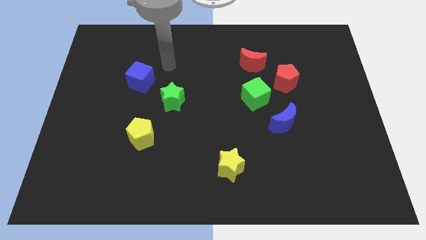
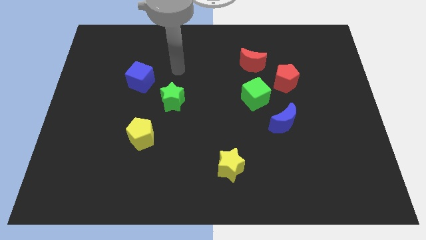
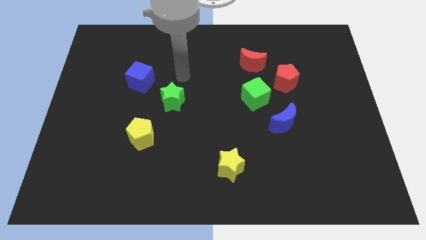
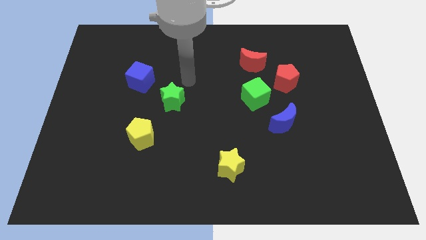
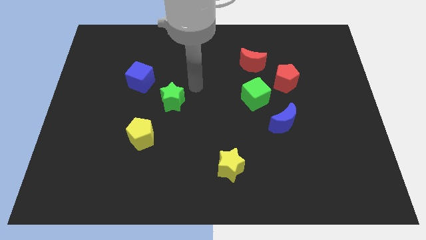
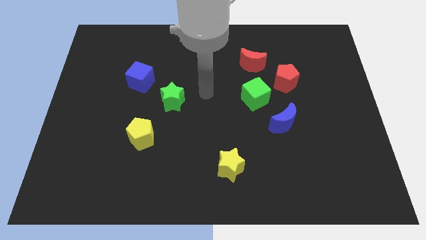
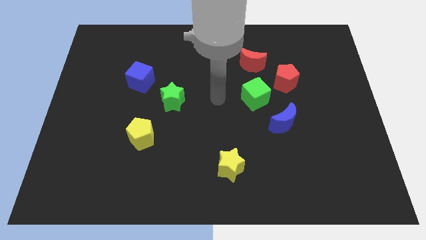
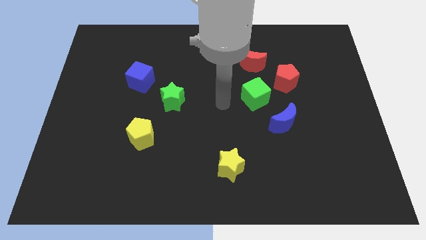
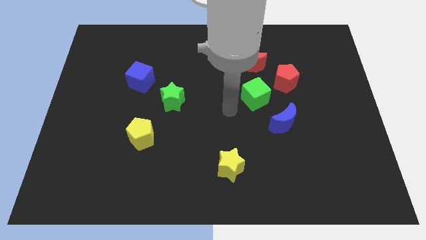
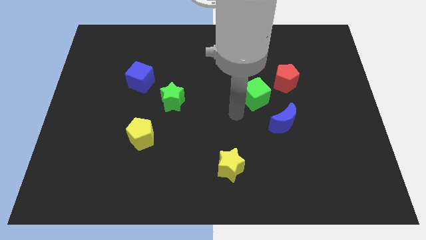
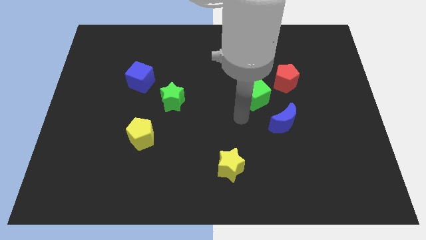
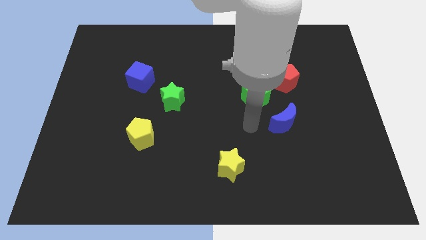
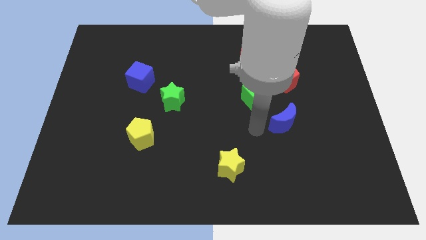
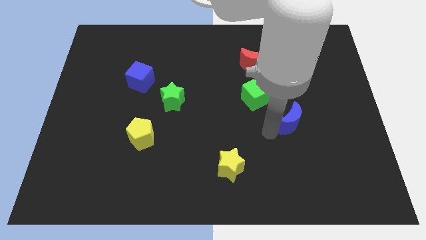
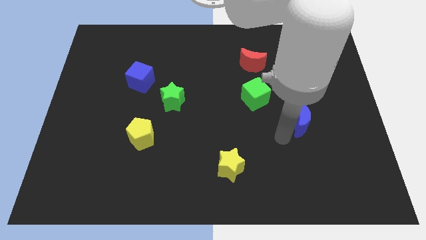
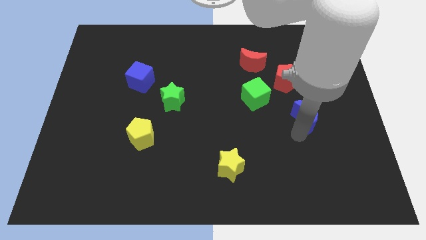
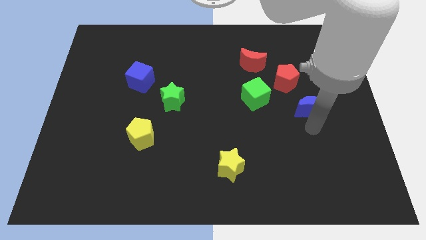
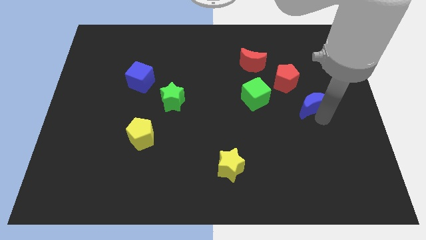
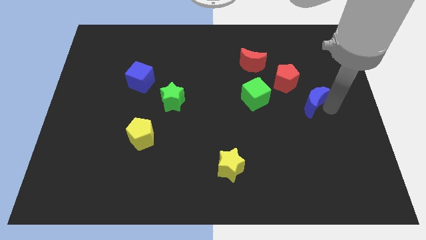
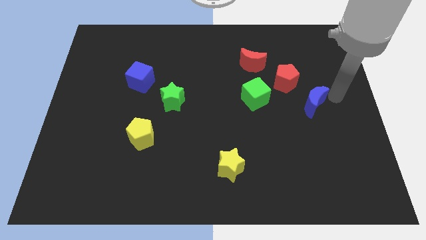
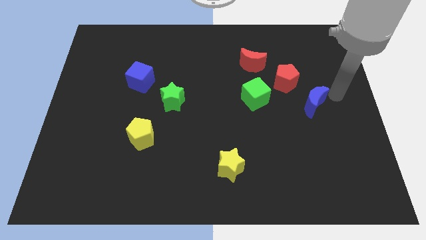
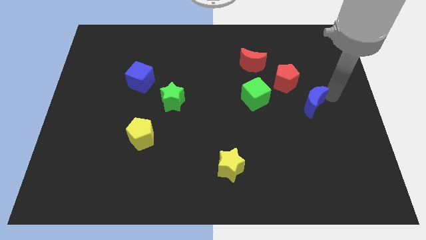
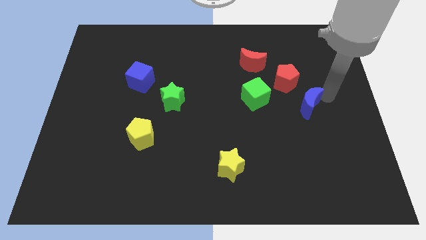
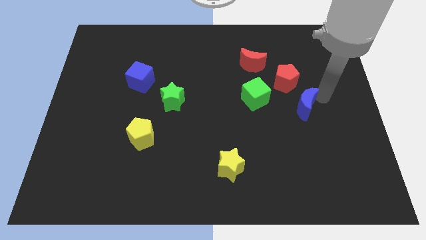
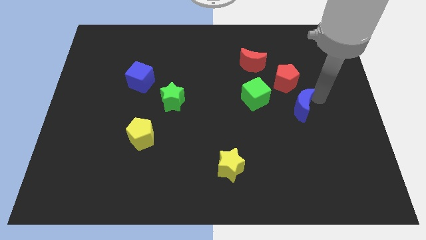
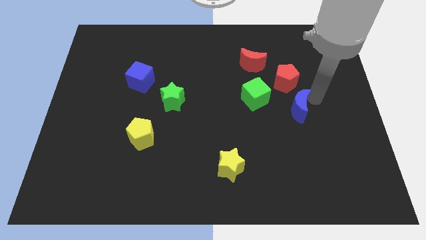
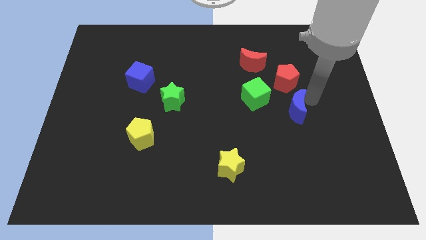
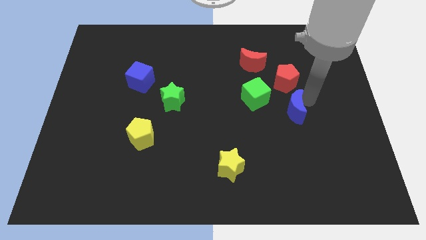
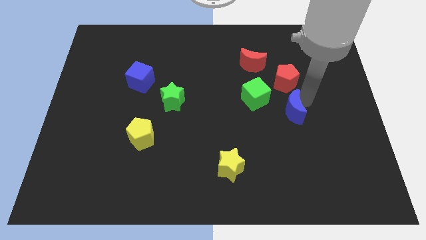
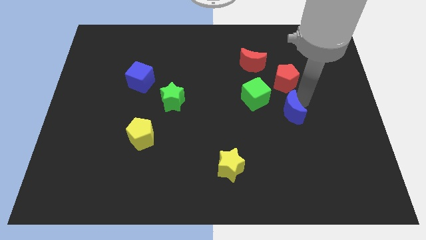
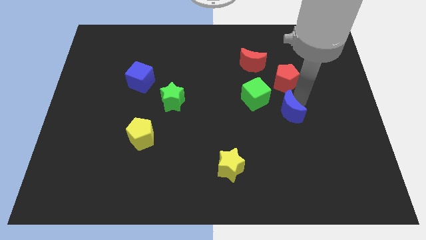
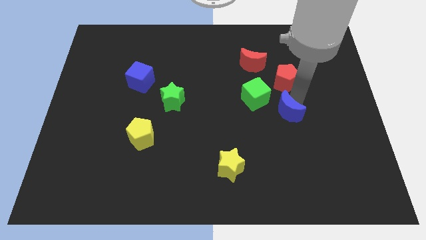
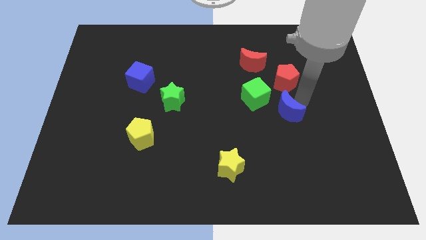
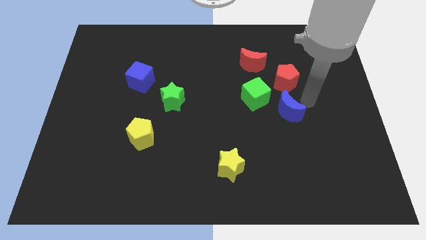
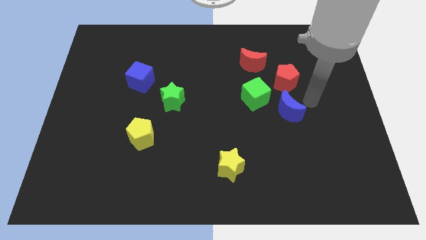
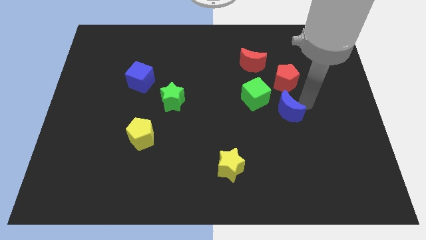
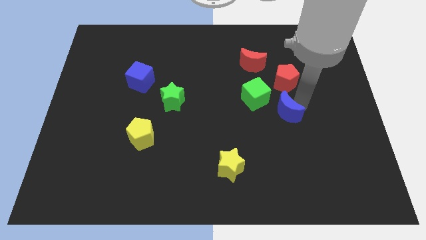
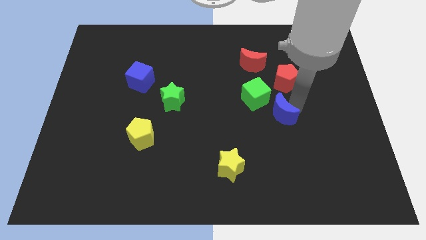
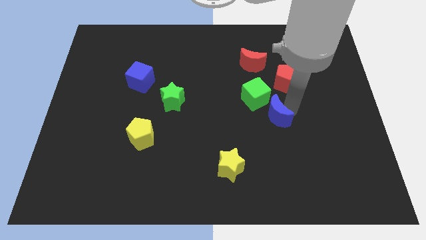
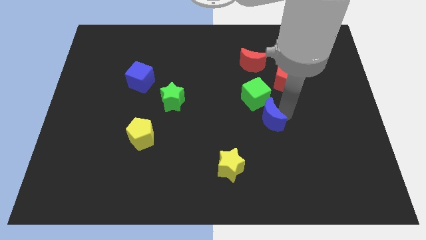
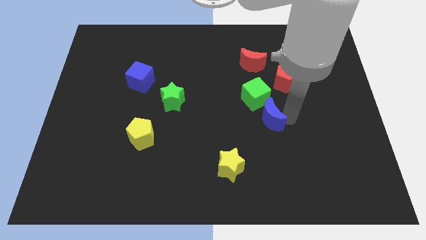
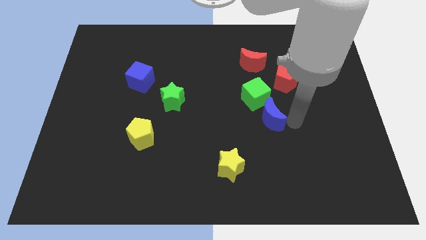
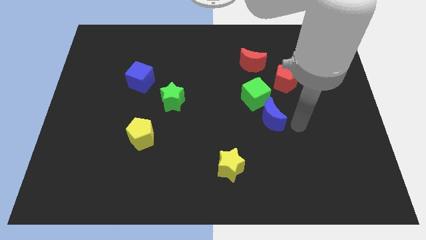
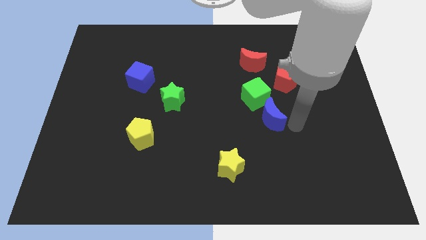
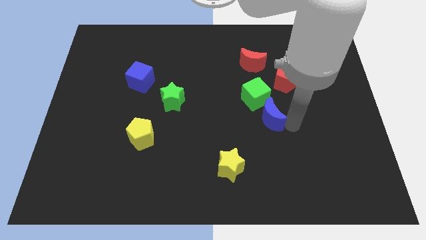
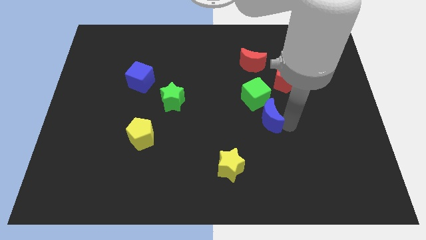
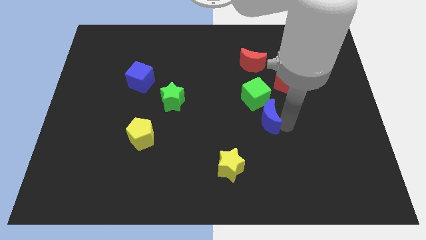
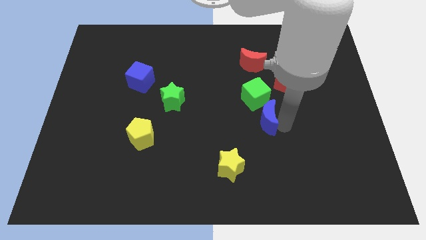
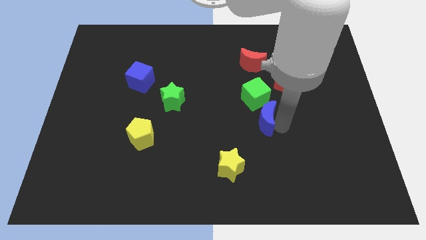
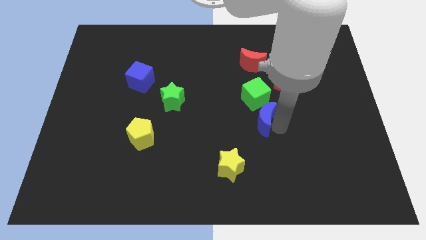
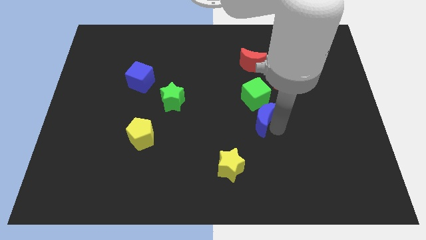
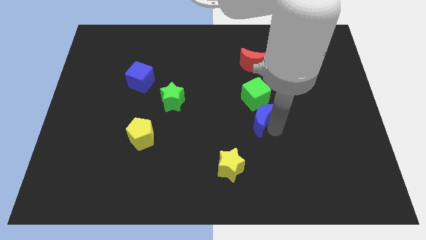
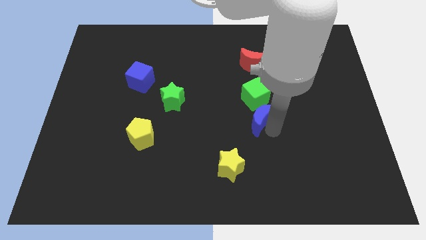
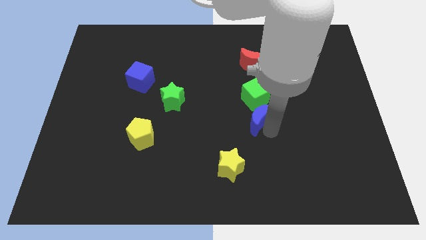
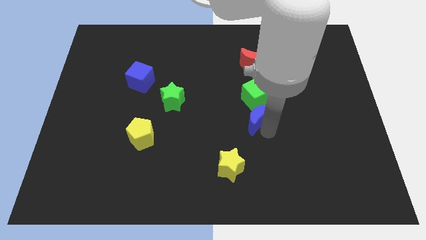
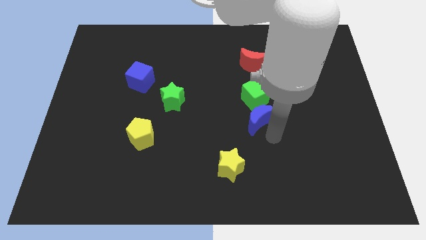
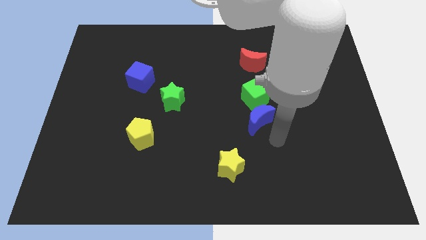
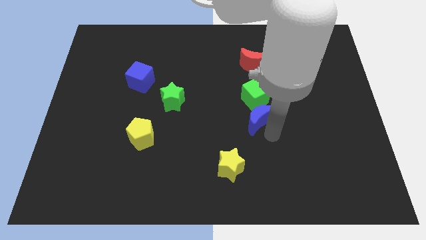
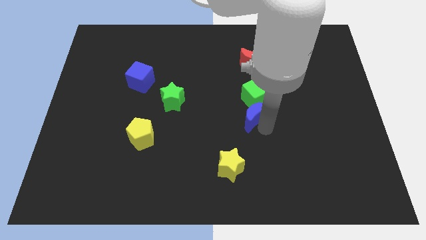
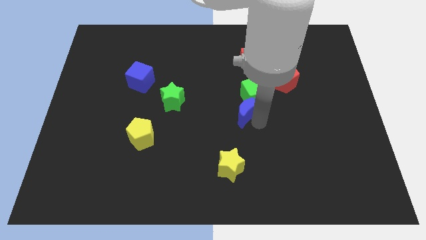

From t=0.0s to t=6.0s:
push the blue moon a little bit upwards and then to the left

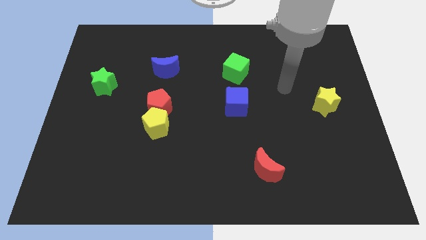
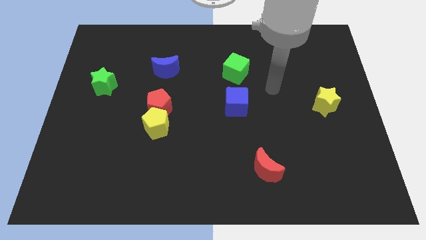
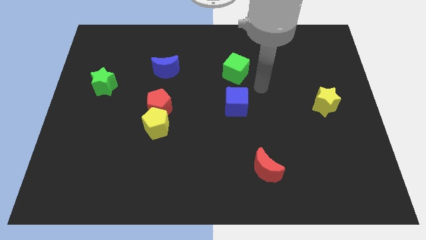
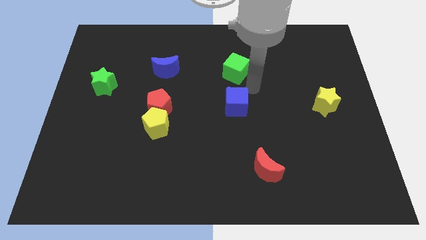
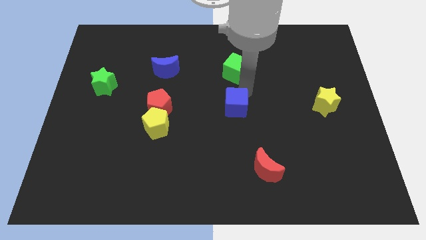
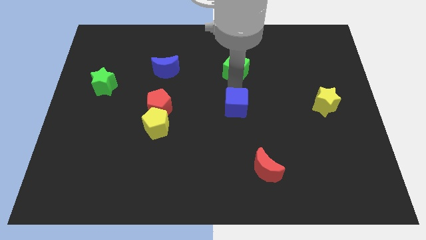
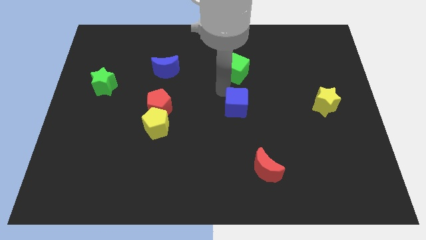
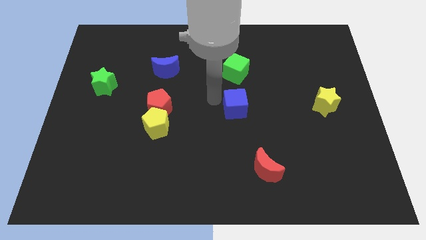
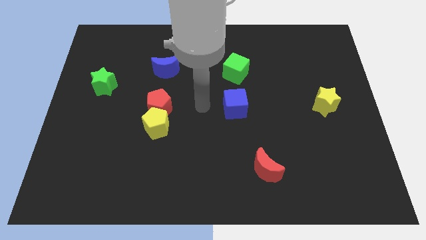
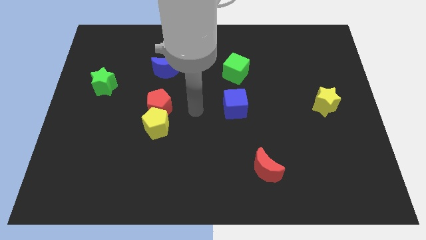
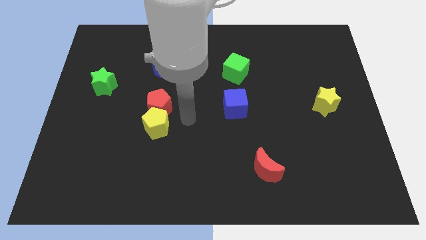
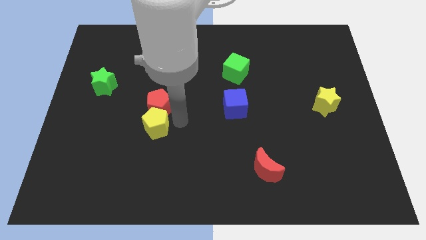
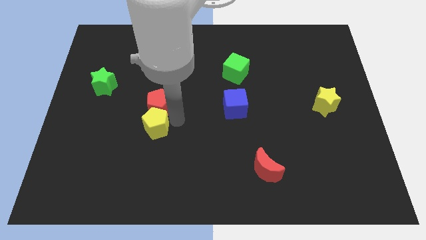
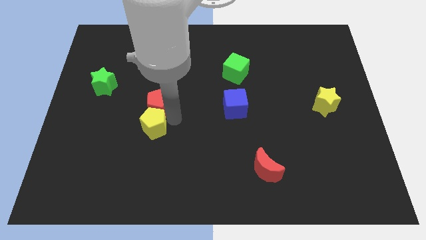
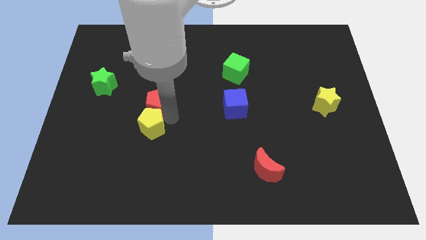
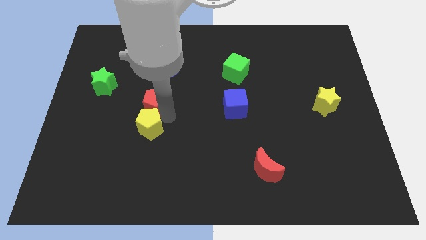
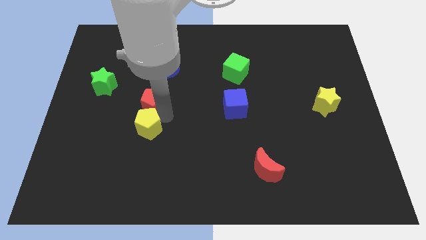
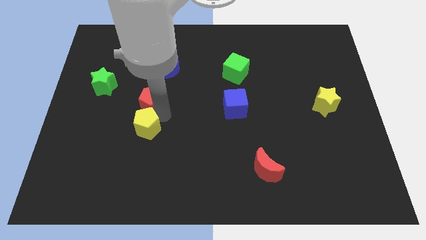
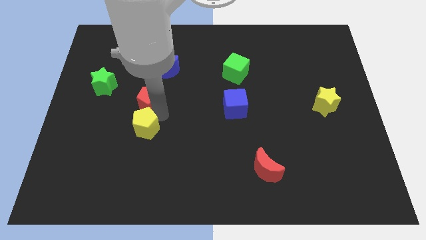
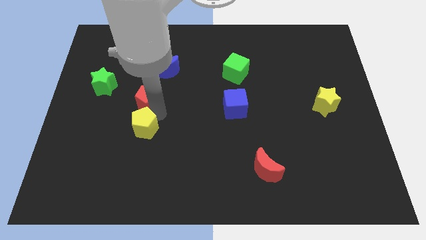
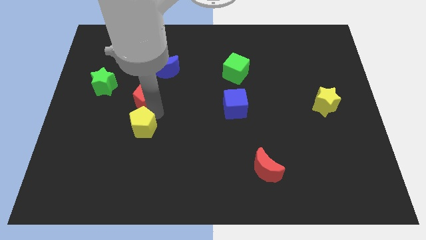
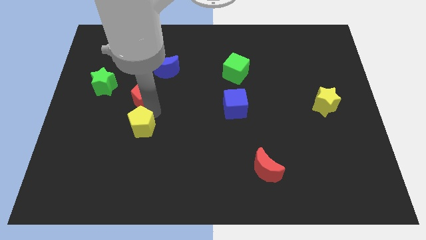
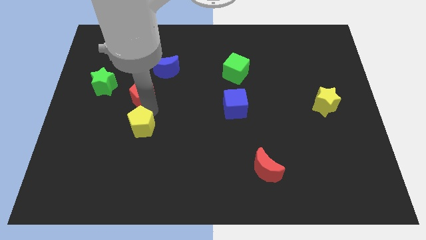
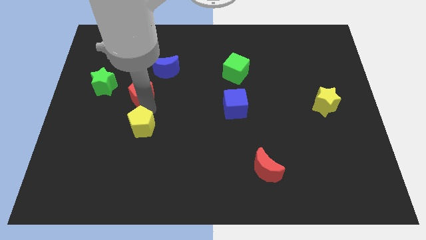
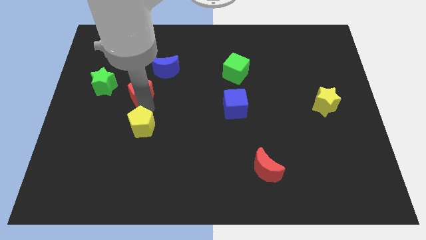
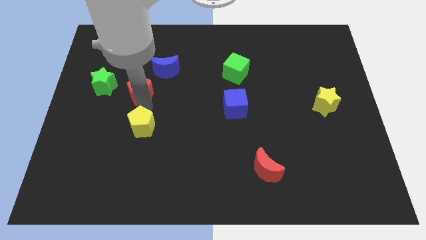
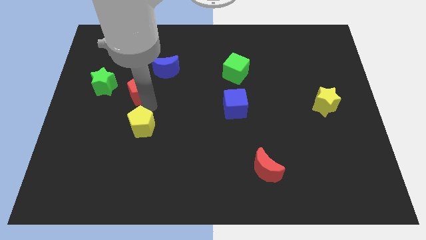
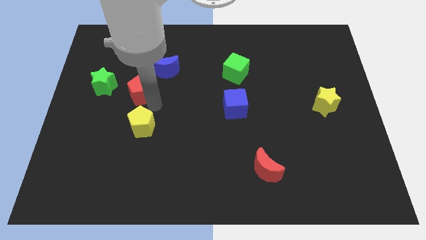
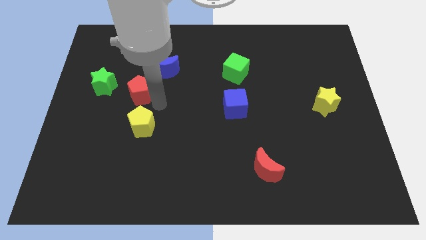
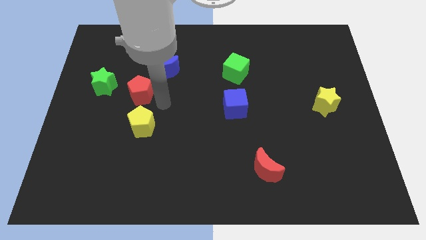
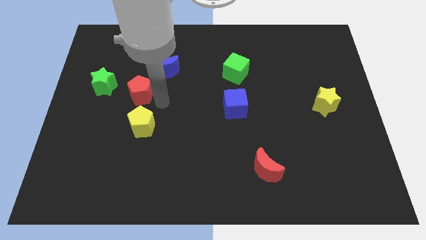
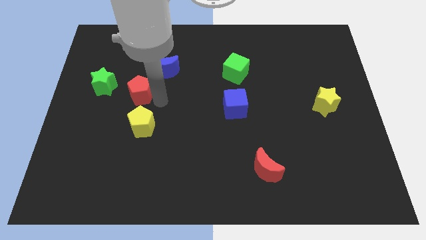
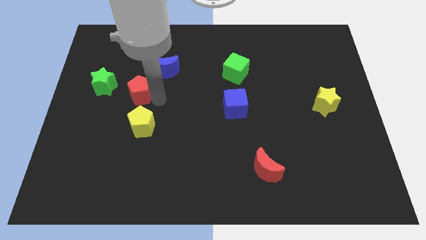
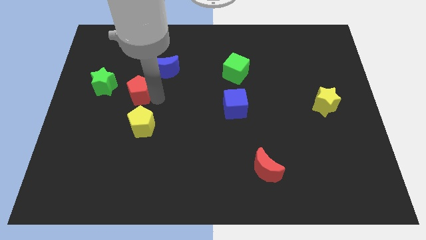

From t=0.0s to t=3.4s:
push the red pentagon a little up and left
